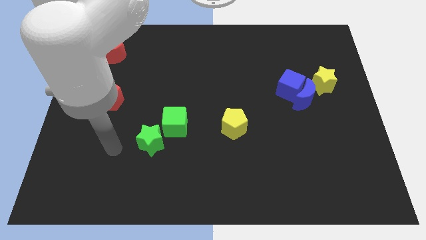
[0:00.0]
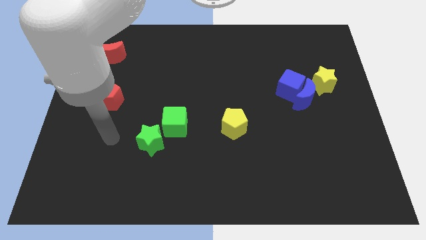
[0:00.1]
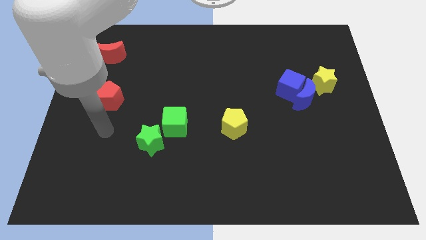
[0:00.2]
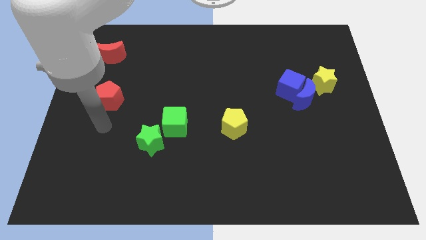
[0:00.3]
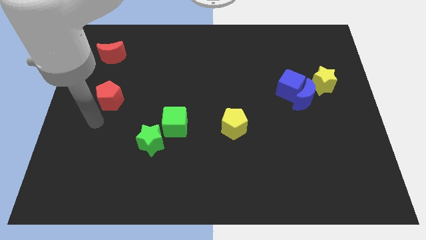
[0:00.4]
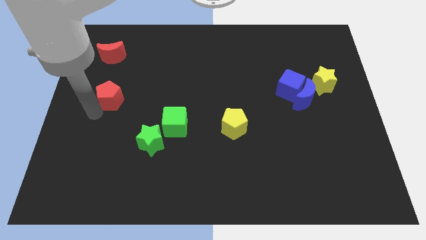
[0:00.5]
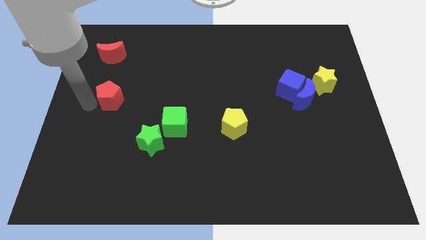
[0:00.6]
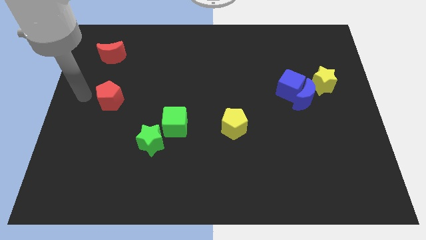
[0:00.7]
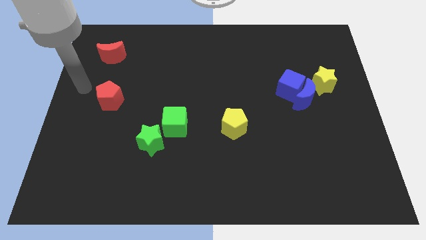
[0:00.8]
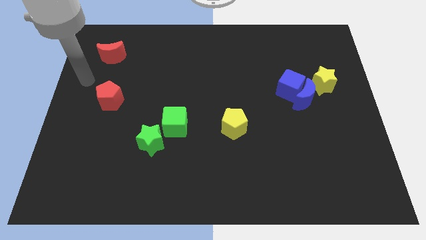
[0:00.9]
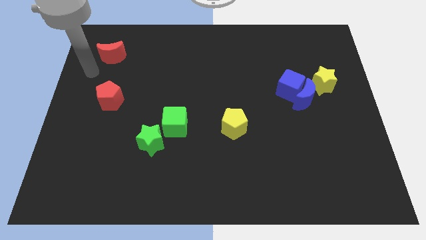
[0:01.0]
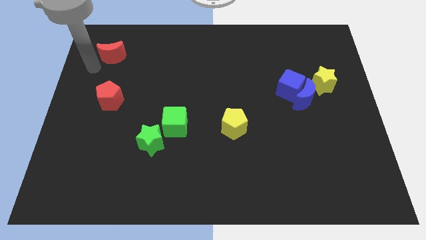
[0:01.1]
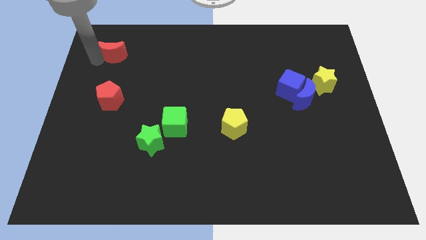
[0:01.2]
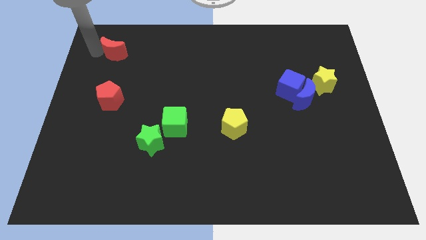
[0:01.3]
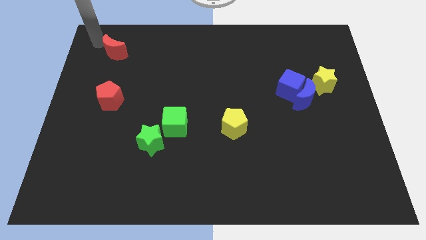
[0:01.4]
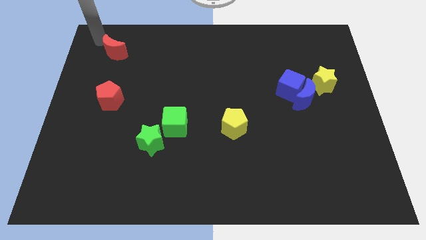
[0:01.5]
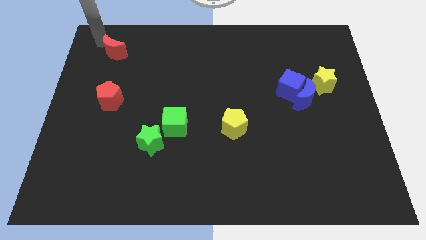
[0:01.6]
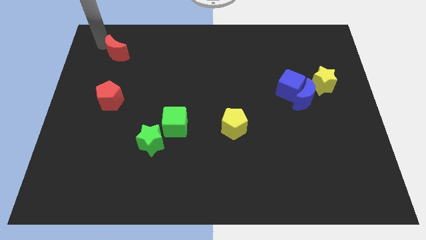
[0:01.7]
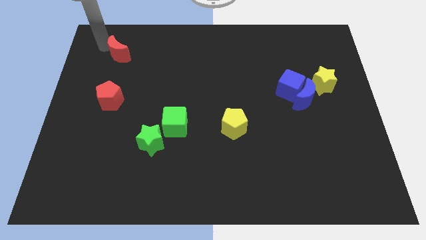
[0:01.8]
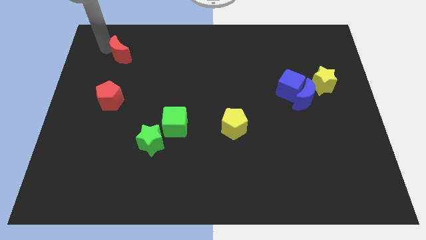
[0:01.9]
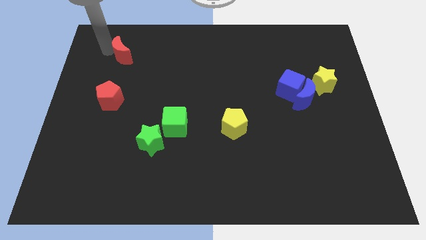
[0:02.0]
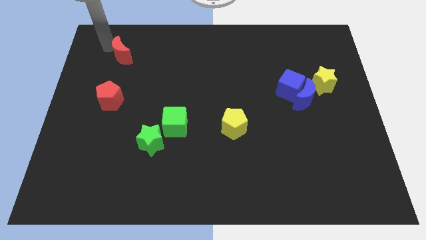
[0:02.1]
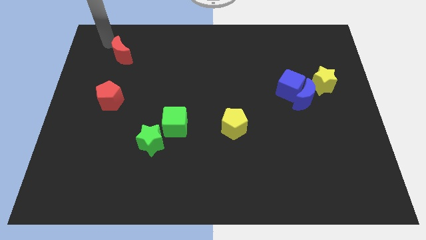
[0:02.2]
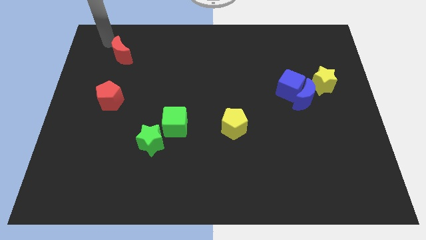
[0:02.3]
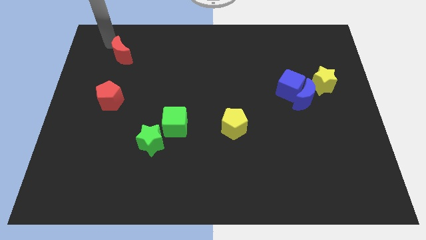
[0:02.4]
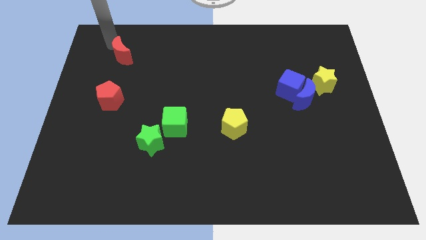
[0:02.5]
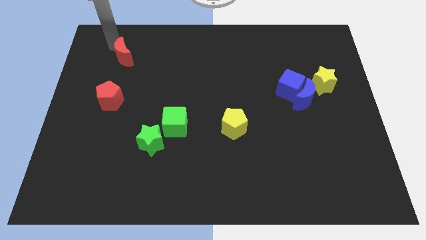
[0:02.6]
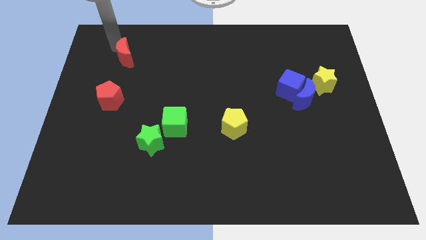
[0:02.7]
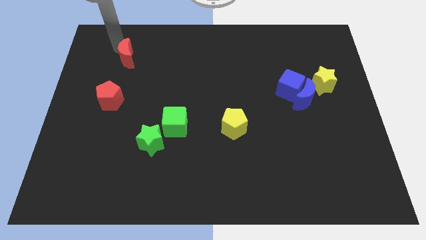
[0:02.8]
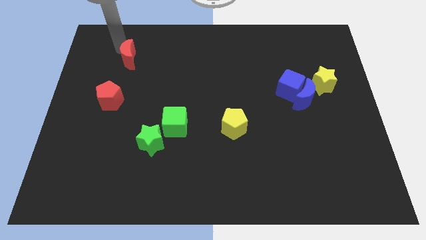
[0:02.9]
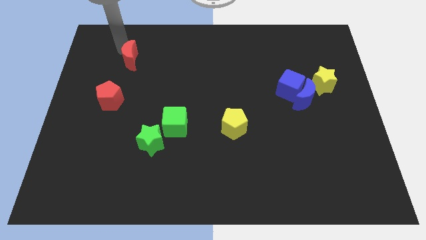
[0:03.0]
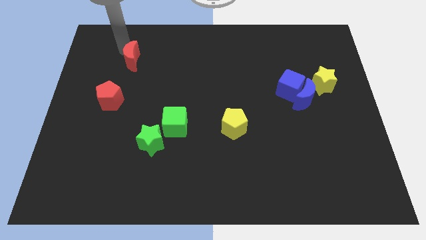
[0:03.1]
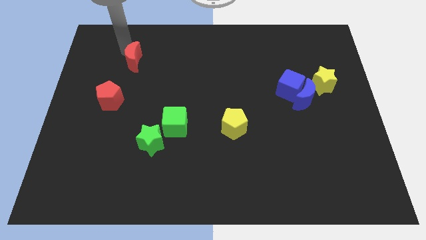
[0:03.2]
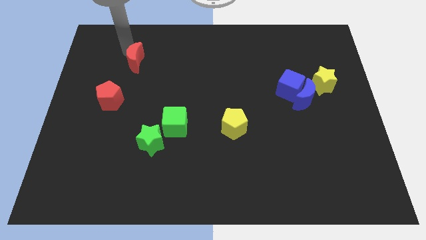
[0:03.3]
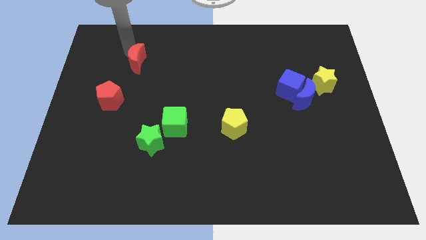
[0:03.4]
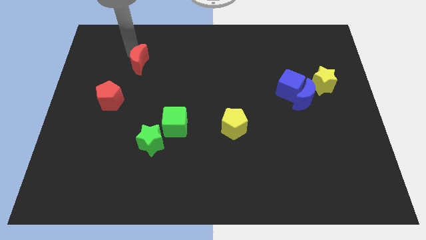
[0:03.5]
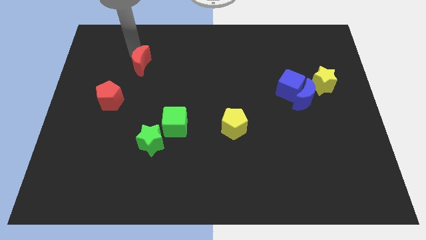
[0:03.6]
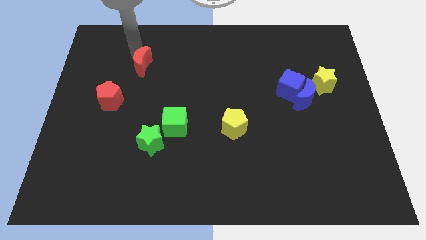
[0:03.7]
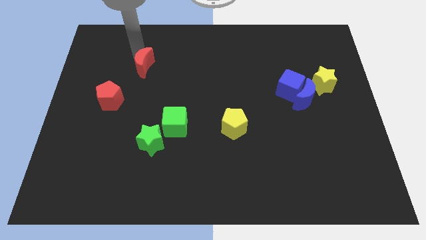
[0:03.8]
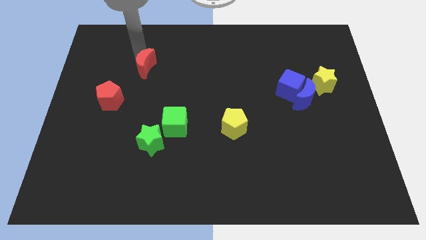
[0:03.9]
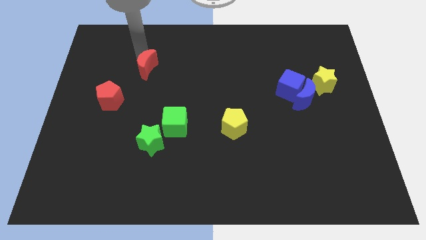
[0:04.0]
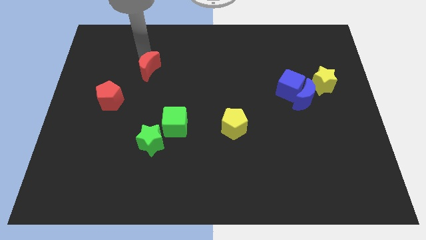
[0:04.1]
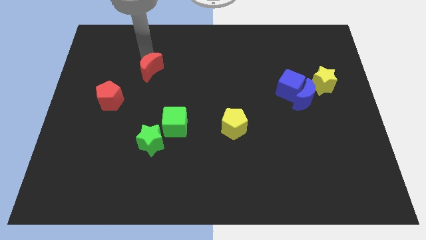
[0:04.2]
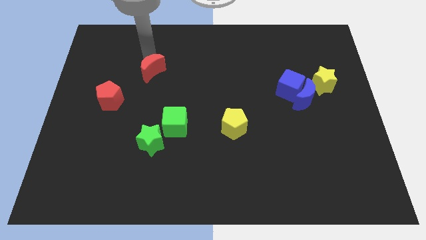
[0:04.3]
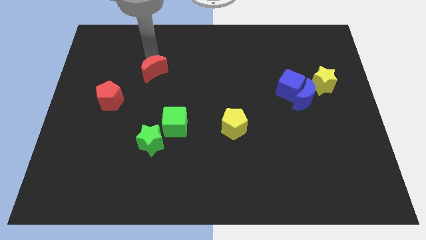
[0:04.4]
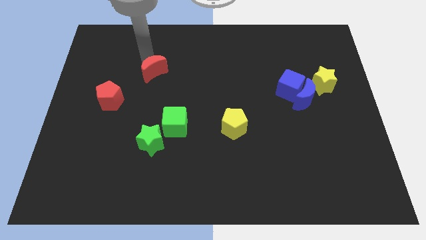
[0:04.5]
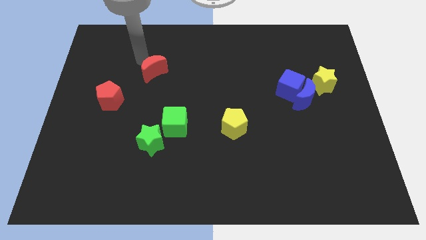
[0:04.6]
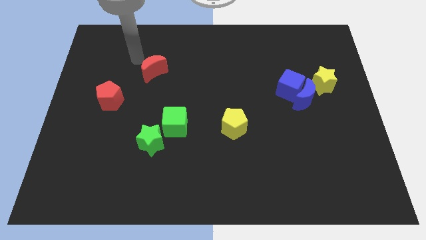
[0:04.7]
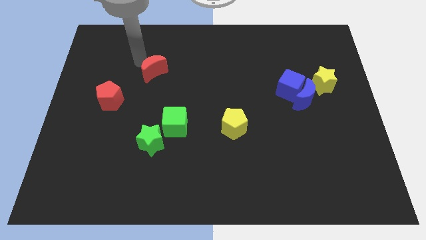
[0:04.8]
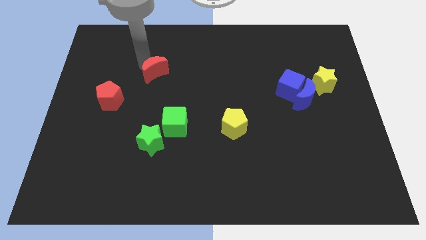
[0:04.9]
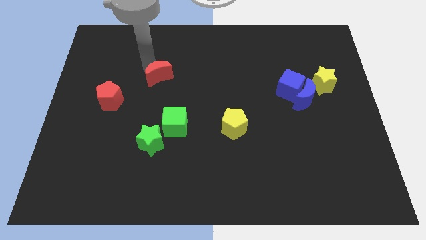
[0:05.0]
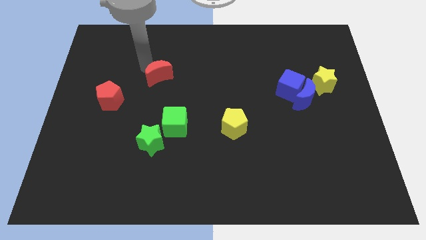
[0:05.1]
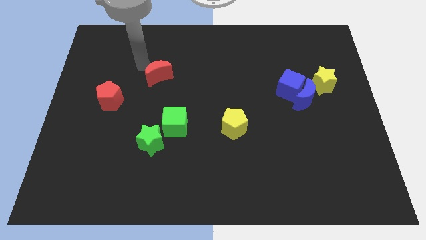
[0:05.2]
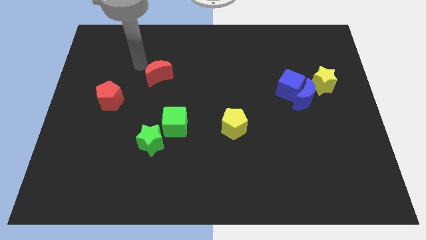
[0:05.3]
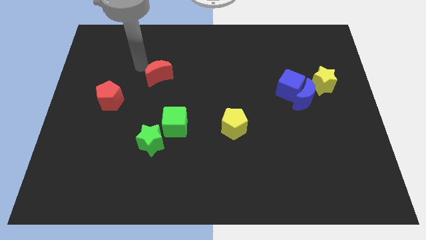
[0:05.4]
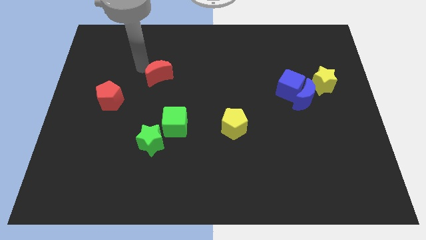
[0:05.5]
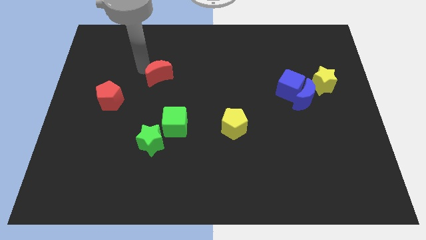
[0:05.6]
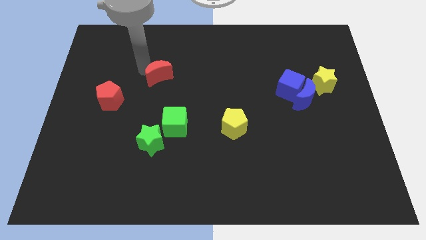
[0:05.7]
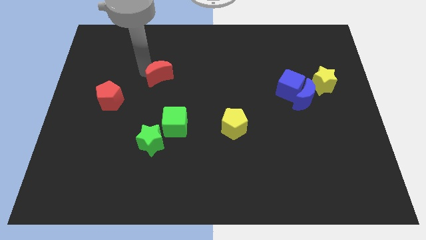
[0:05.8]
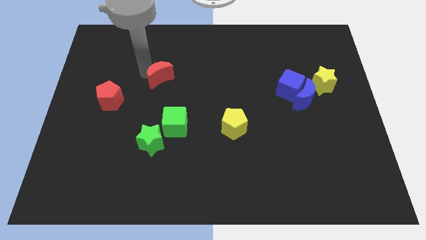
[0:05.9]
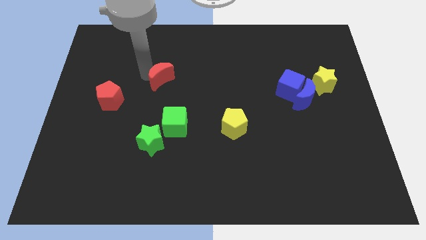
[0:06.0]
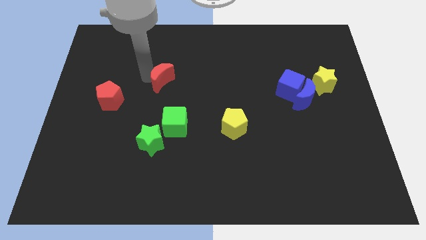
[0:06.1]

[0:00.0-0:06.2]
push the red moon to the top side of the green cube

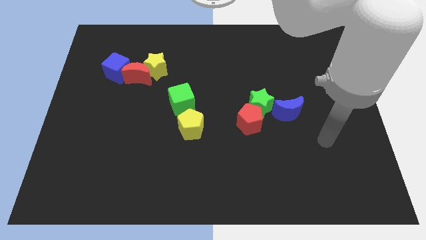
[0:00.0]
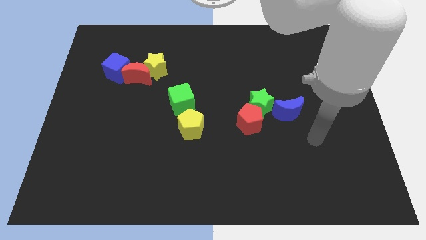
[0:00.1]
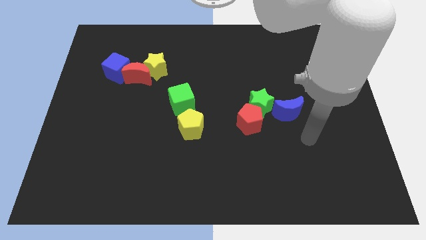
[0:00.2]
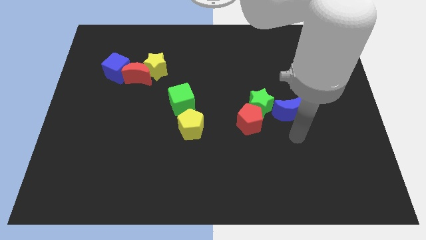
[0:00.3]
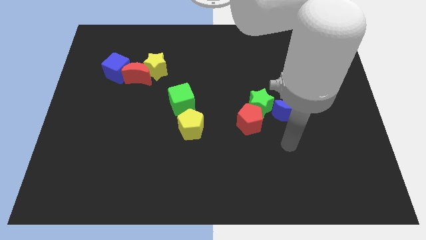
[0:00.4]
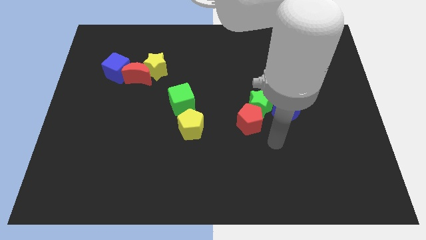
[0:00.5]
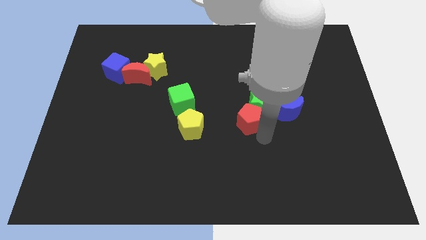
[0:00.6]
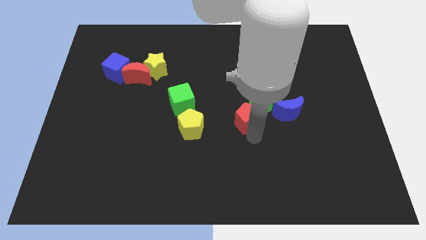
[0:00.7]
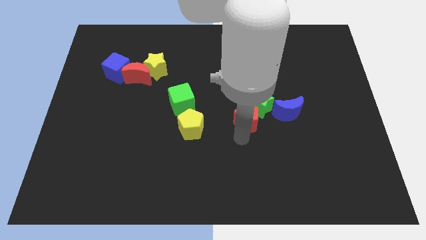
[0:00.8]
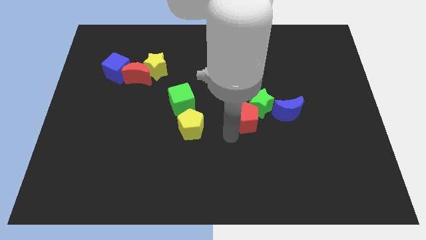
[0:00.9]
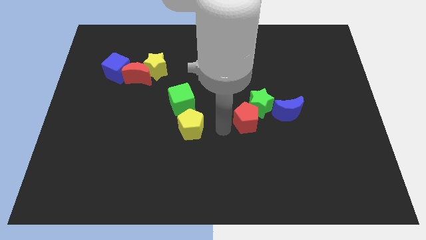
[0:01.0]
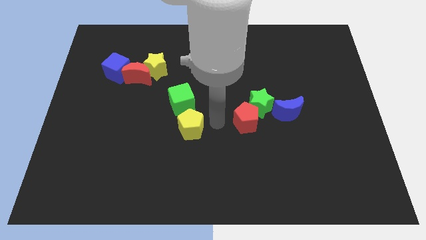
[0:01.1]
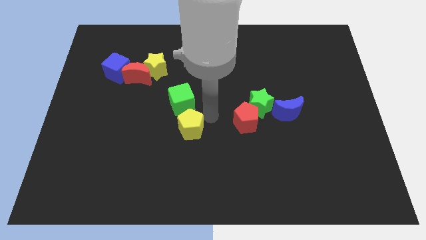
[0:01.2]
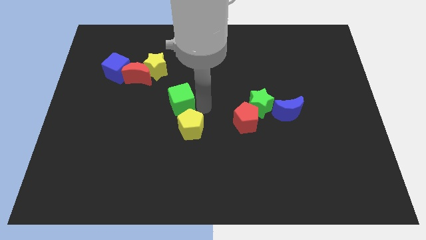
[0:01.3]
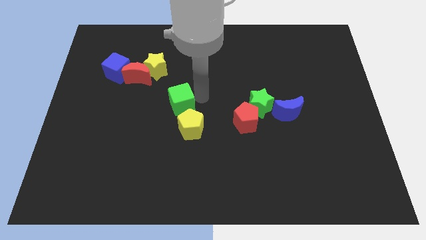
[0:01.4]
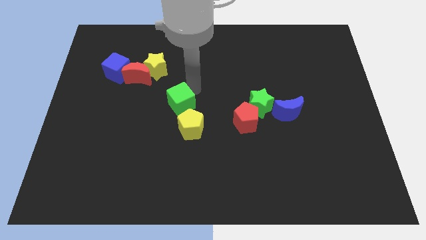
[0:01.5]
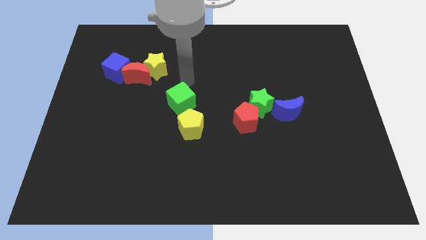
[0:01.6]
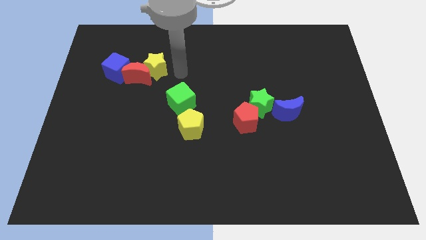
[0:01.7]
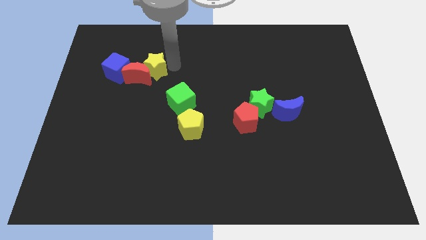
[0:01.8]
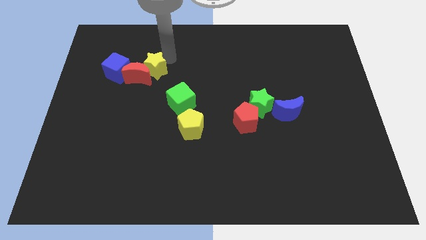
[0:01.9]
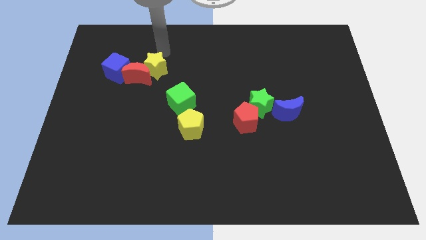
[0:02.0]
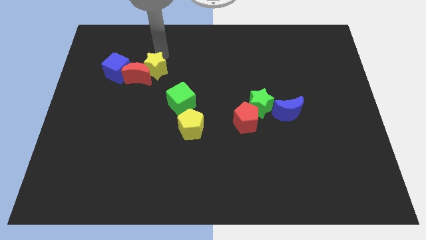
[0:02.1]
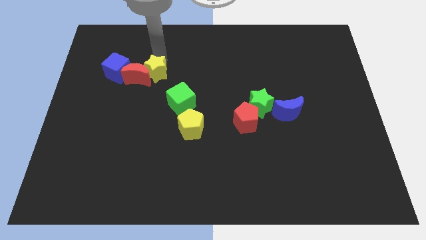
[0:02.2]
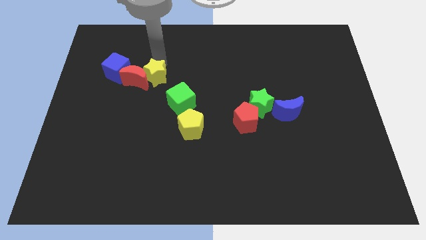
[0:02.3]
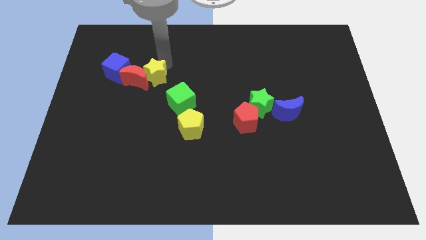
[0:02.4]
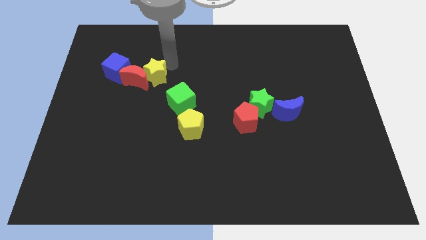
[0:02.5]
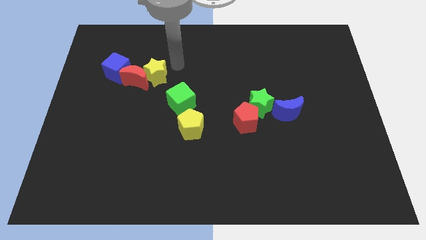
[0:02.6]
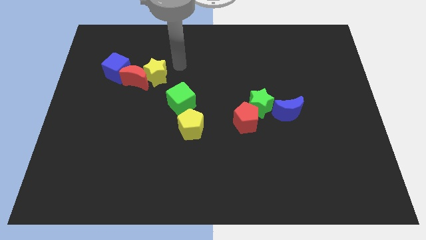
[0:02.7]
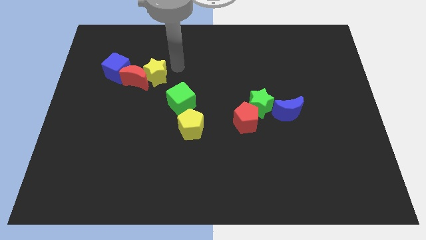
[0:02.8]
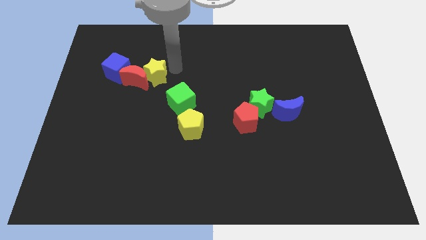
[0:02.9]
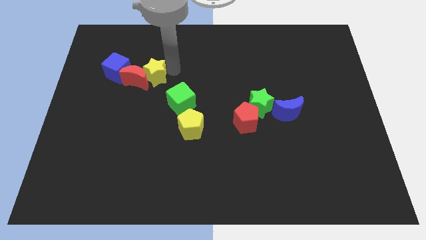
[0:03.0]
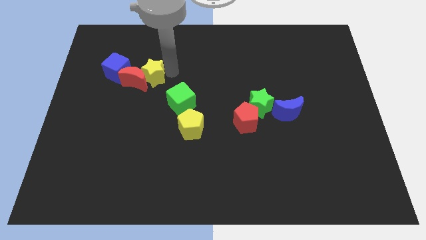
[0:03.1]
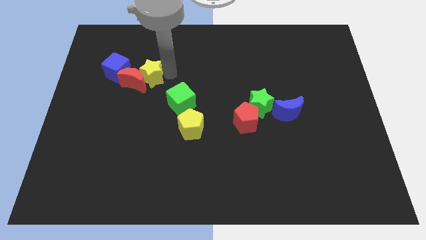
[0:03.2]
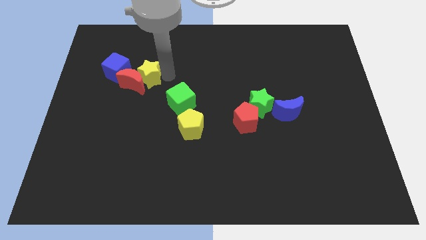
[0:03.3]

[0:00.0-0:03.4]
slide the yellow star diagonally down and to the right of the blue cube
